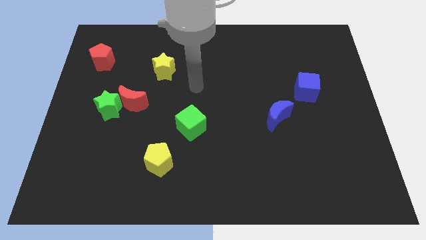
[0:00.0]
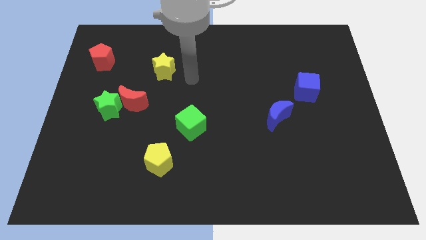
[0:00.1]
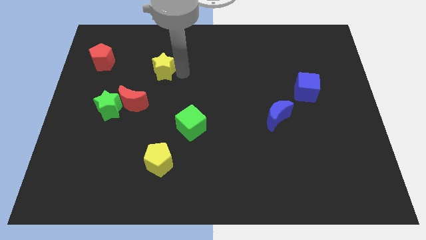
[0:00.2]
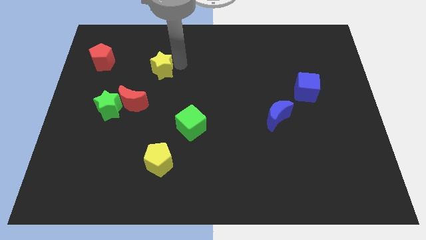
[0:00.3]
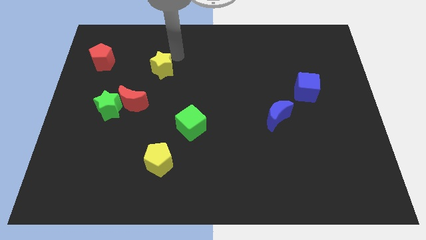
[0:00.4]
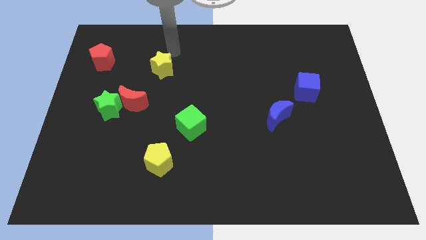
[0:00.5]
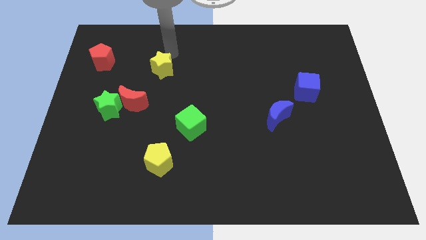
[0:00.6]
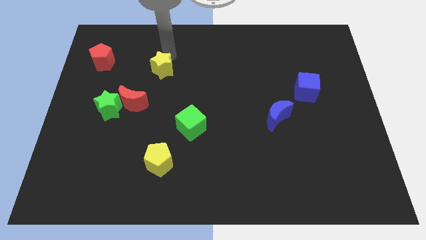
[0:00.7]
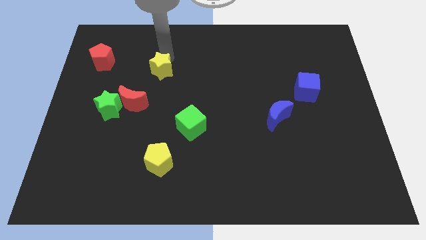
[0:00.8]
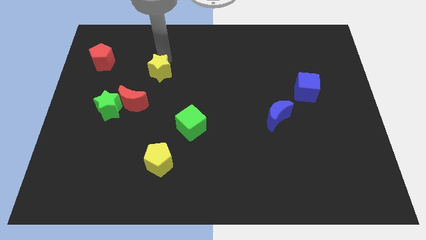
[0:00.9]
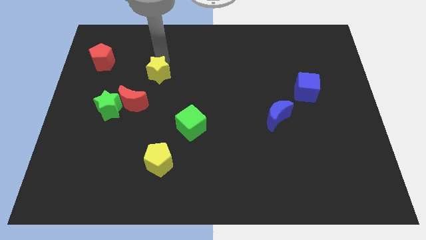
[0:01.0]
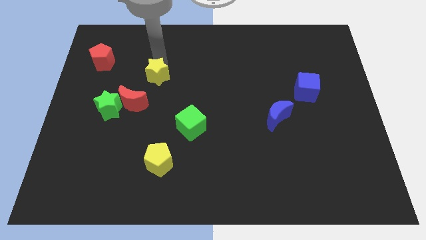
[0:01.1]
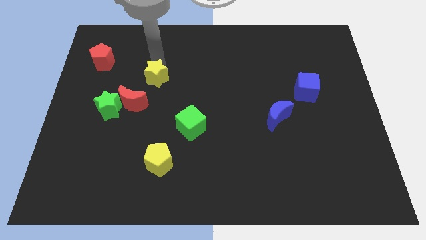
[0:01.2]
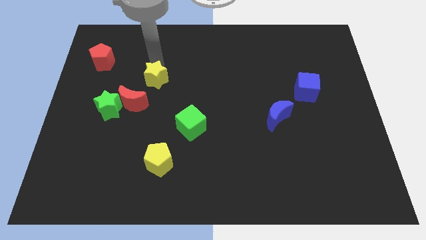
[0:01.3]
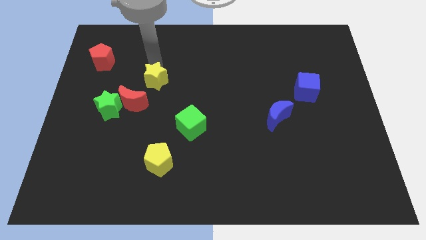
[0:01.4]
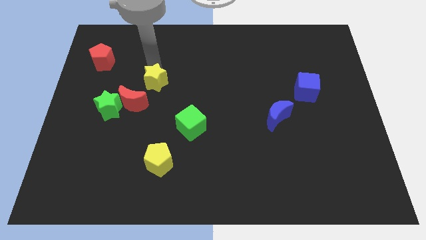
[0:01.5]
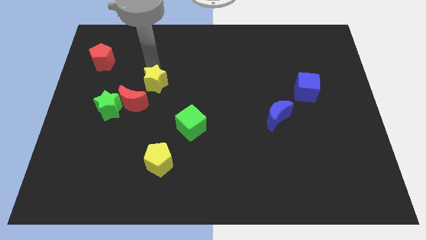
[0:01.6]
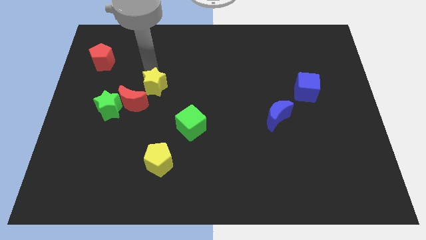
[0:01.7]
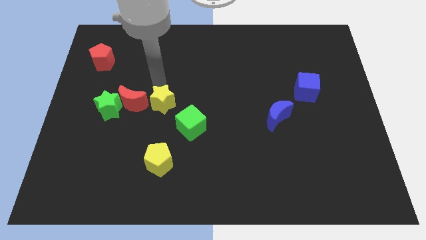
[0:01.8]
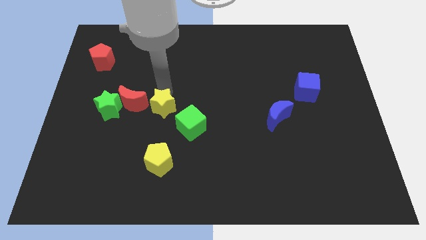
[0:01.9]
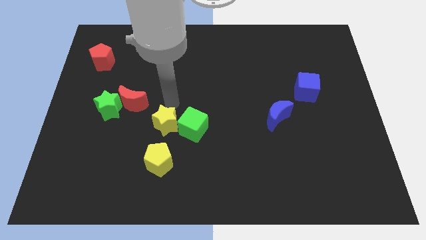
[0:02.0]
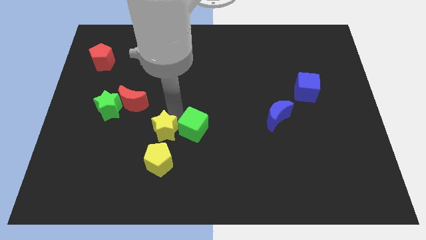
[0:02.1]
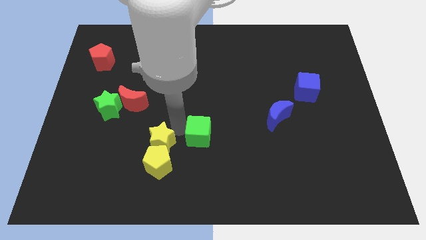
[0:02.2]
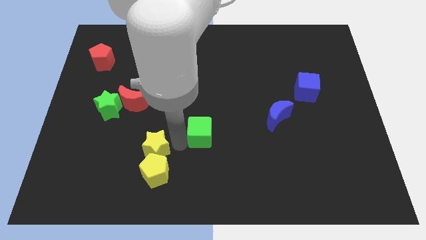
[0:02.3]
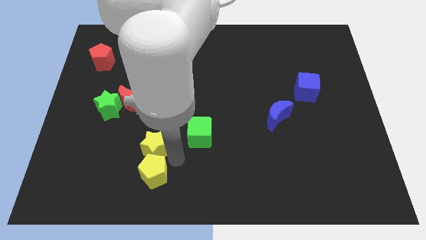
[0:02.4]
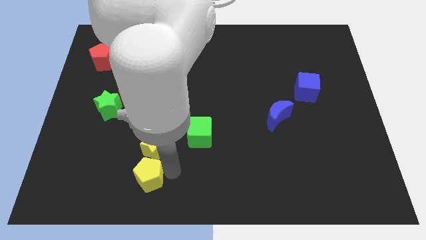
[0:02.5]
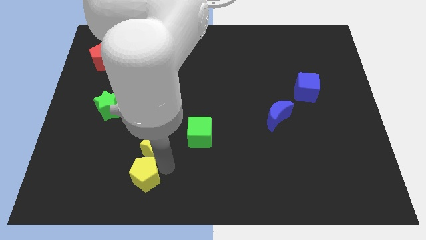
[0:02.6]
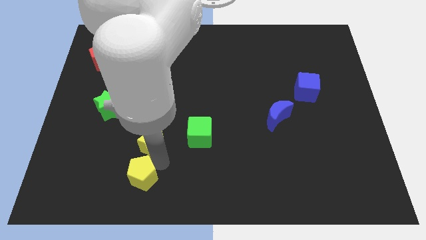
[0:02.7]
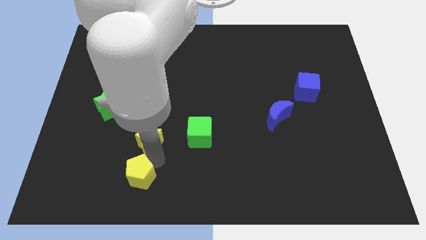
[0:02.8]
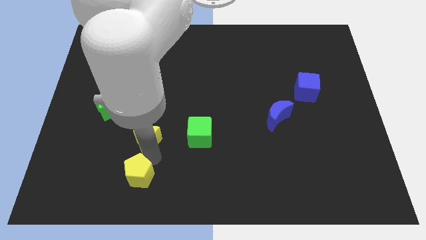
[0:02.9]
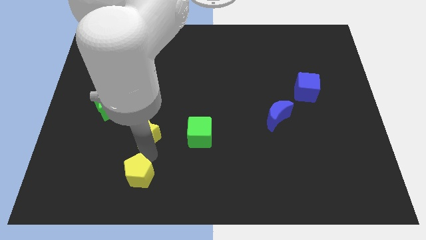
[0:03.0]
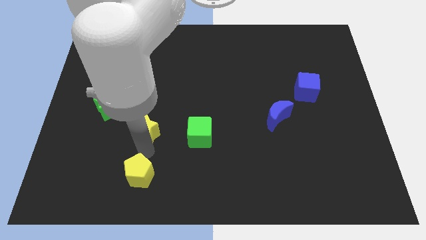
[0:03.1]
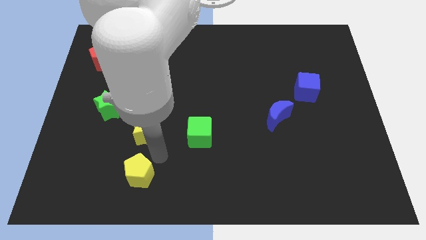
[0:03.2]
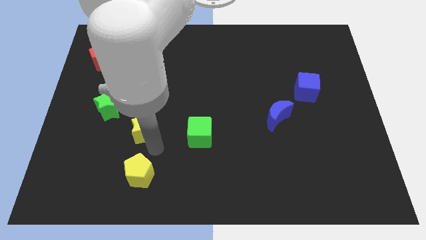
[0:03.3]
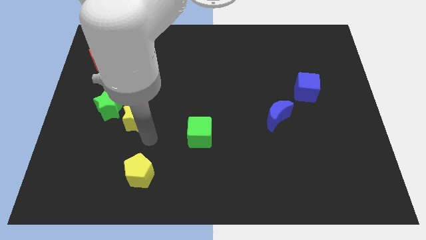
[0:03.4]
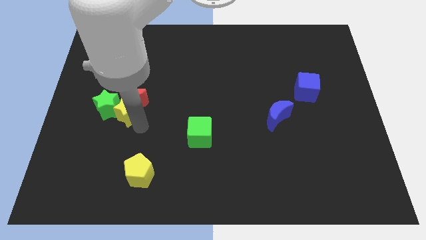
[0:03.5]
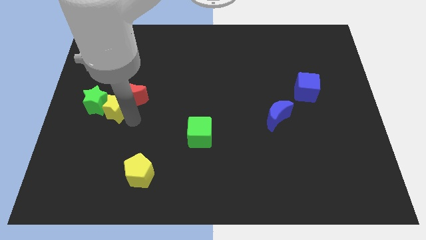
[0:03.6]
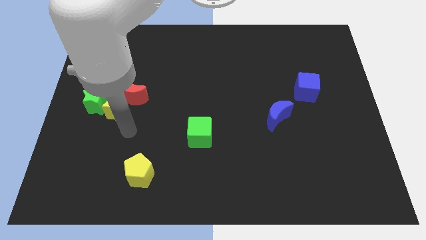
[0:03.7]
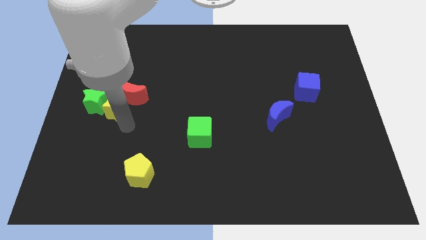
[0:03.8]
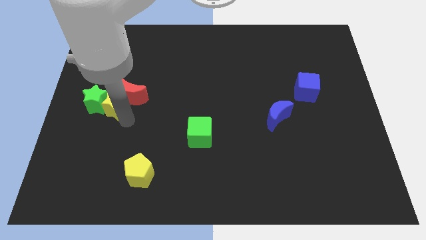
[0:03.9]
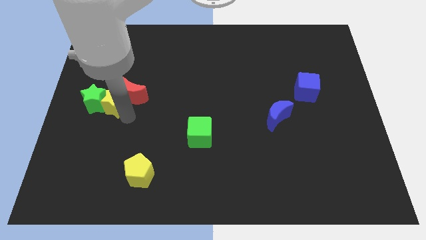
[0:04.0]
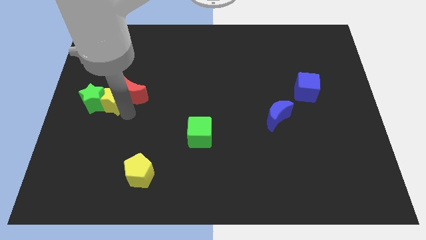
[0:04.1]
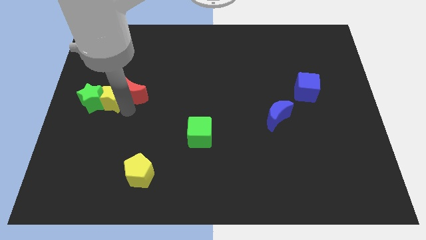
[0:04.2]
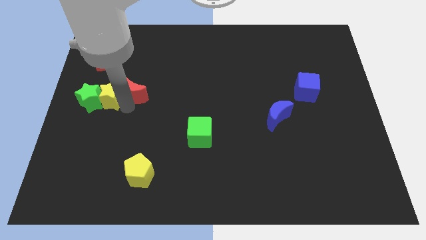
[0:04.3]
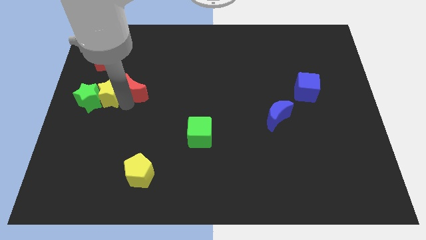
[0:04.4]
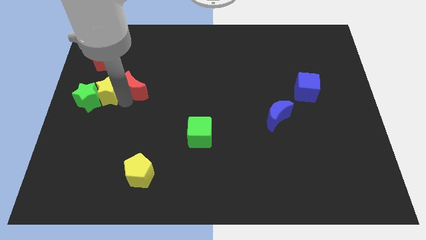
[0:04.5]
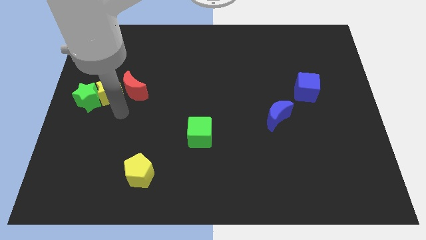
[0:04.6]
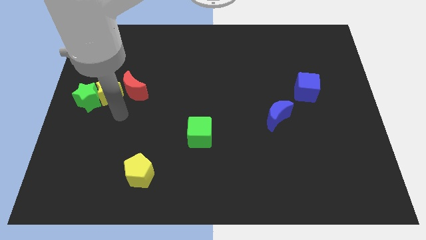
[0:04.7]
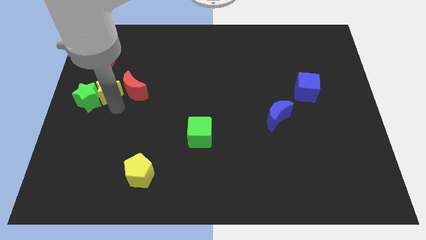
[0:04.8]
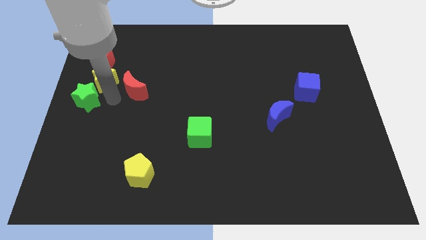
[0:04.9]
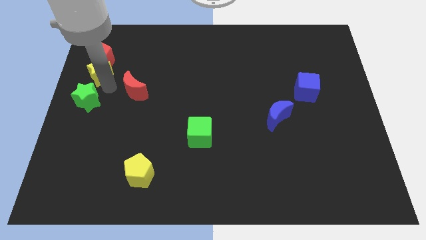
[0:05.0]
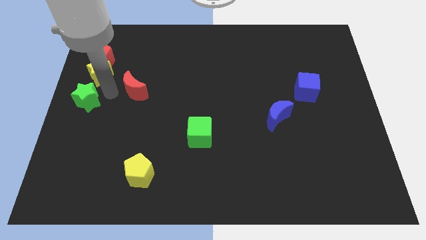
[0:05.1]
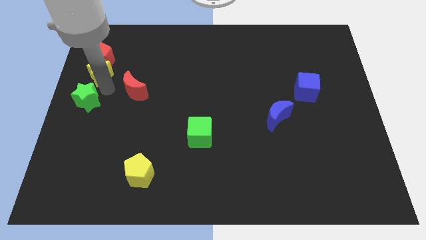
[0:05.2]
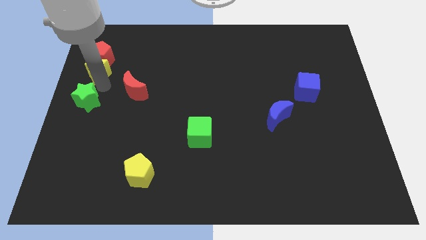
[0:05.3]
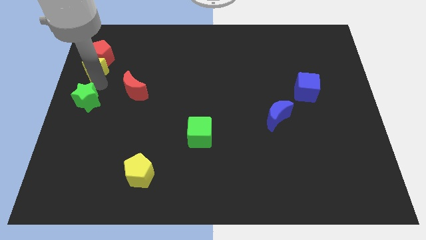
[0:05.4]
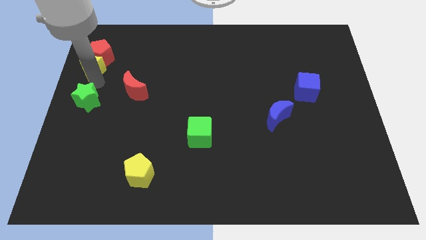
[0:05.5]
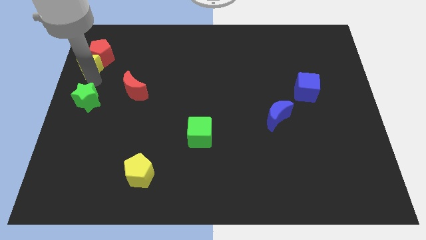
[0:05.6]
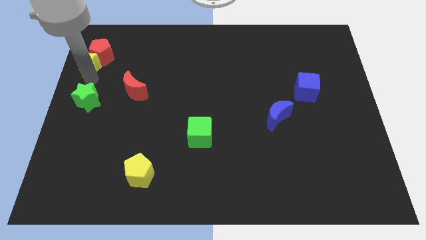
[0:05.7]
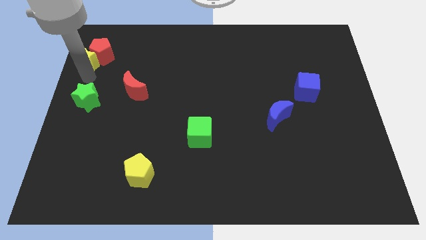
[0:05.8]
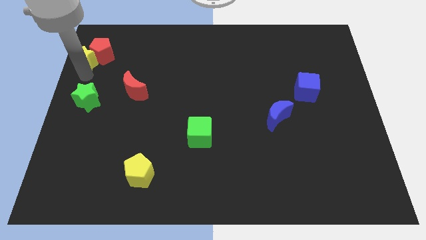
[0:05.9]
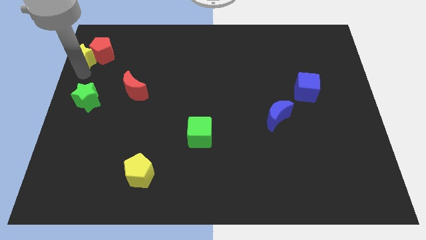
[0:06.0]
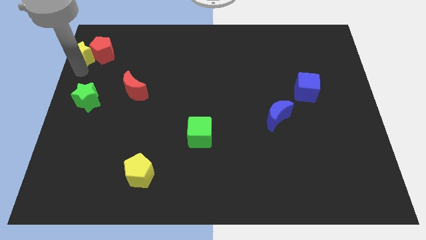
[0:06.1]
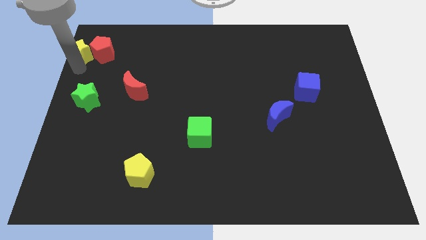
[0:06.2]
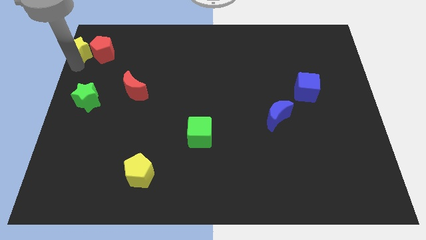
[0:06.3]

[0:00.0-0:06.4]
push the yellow star to the top left of the board
